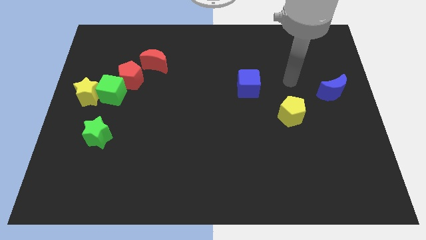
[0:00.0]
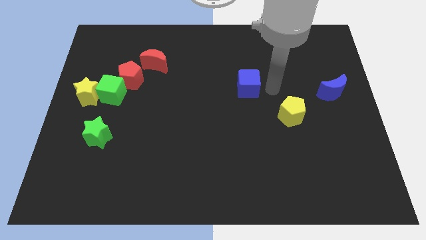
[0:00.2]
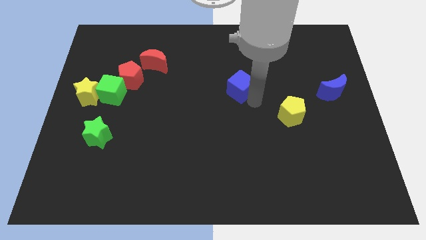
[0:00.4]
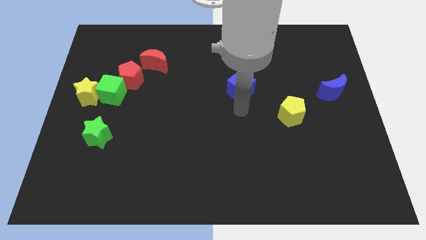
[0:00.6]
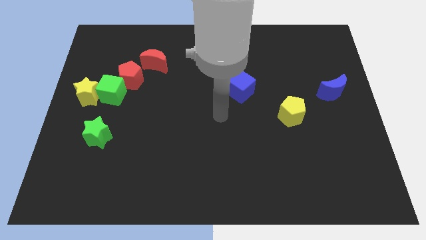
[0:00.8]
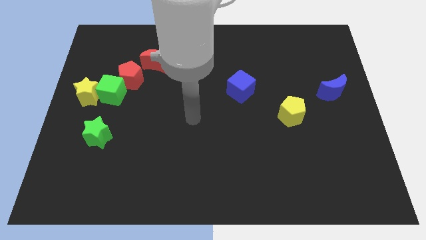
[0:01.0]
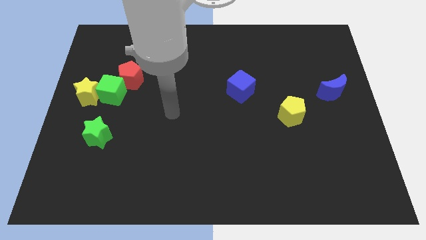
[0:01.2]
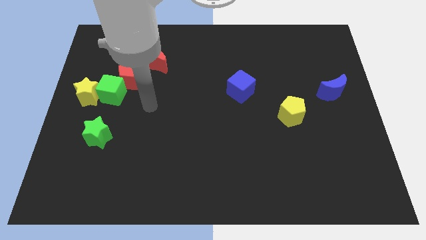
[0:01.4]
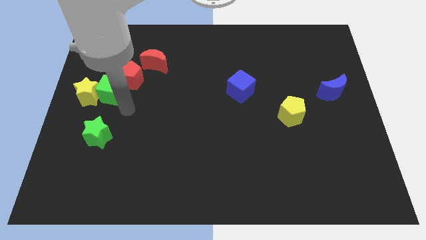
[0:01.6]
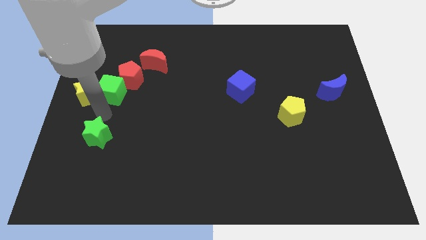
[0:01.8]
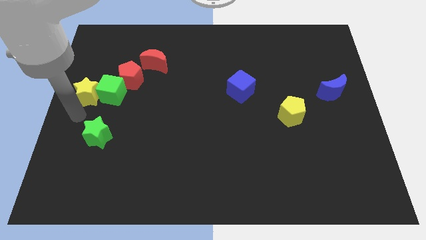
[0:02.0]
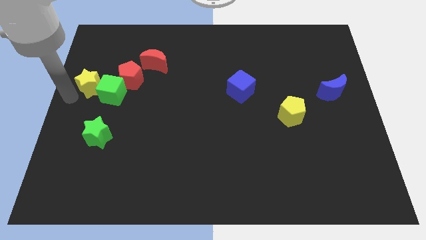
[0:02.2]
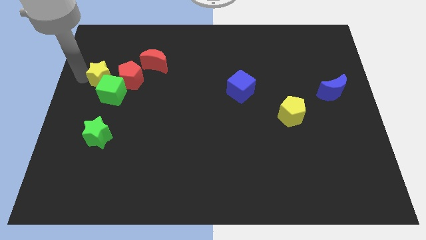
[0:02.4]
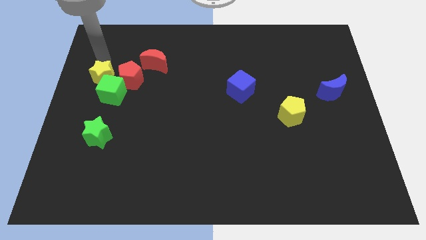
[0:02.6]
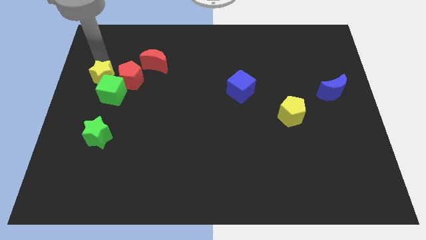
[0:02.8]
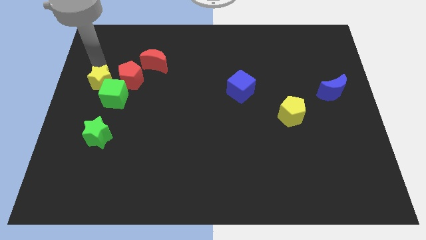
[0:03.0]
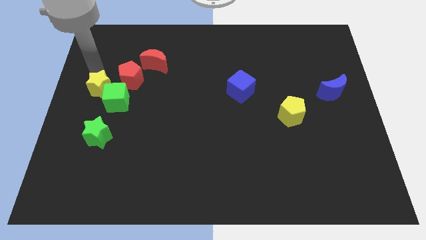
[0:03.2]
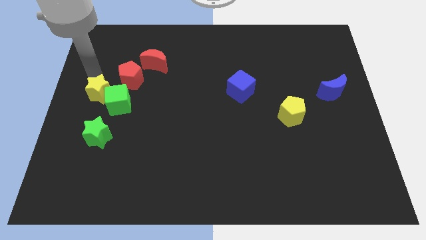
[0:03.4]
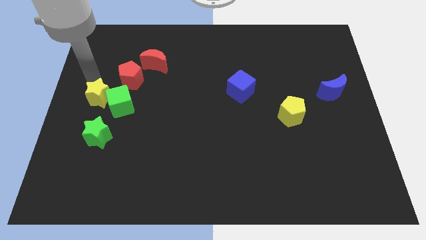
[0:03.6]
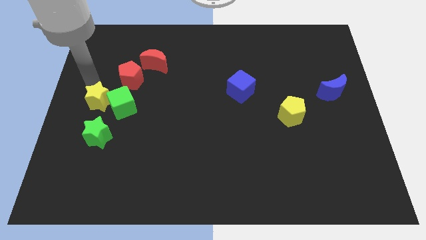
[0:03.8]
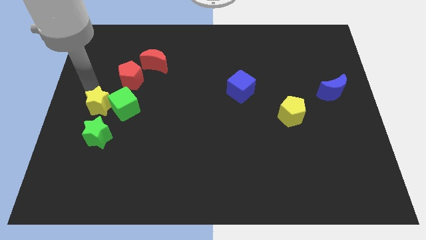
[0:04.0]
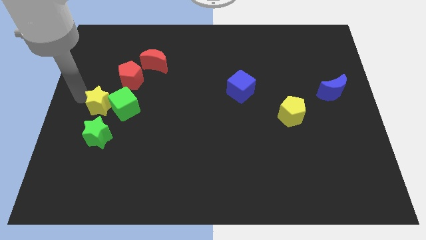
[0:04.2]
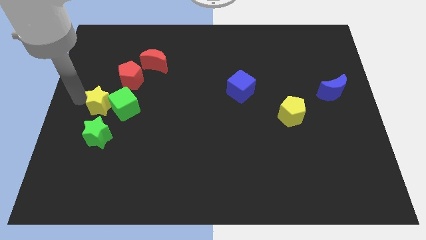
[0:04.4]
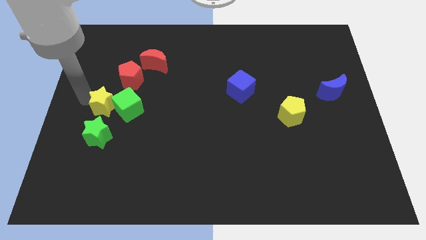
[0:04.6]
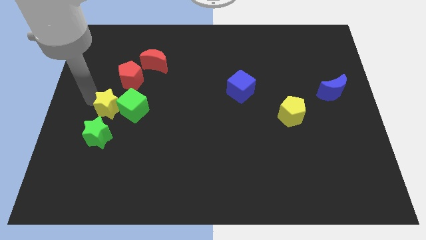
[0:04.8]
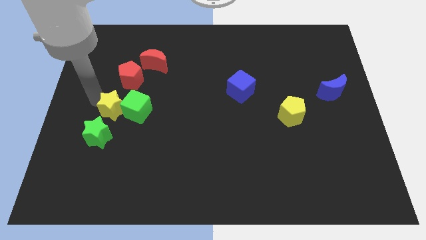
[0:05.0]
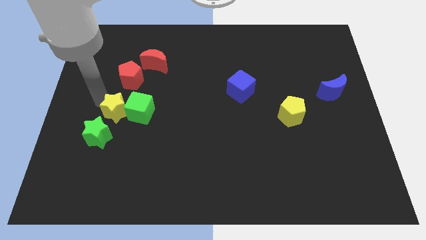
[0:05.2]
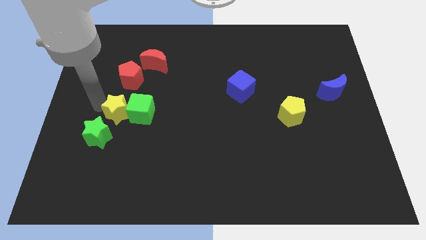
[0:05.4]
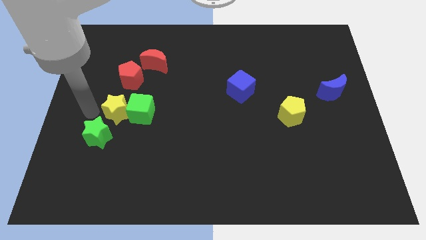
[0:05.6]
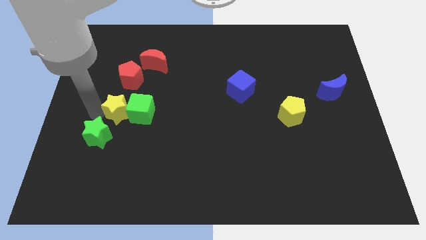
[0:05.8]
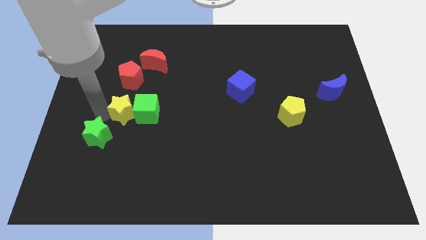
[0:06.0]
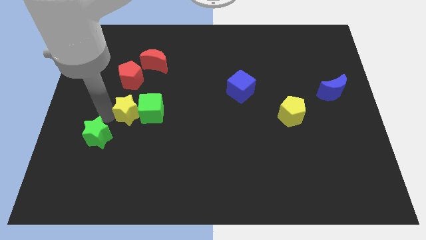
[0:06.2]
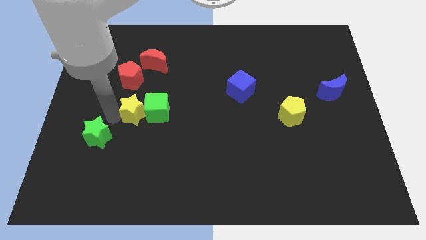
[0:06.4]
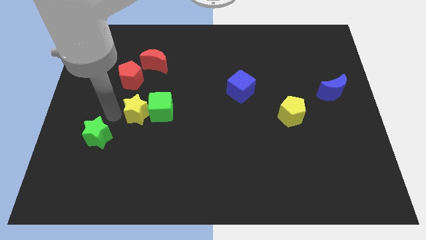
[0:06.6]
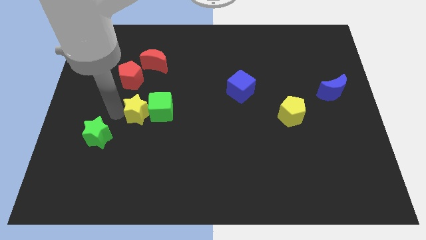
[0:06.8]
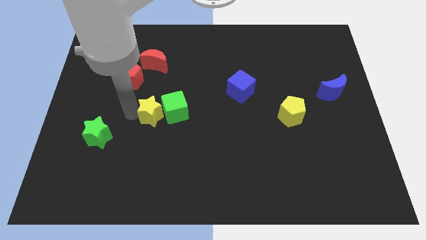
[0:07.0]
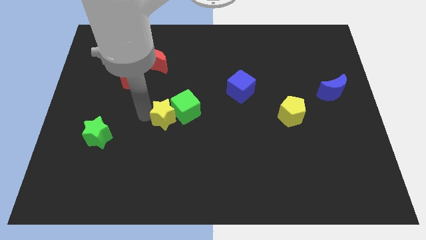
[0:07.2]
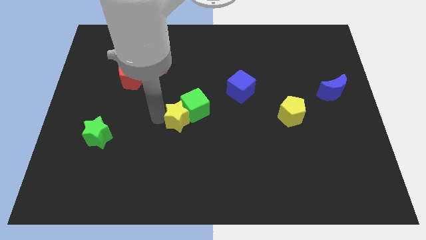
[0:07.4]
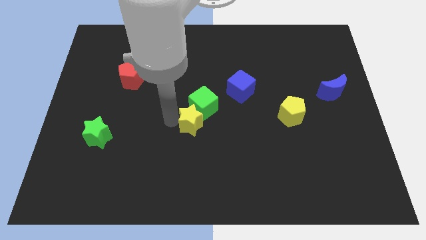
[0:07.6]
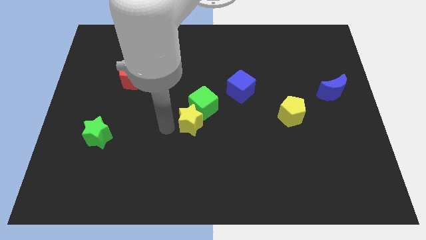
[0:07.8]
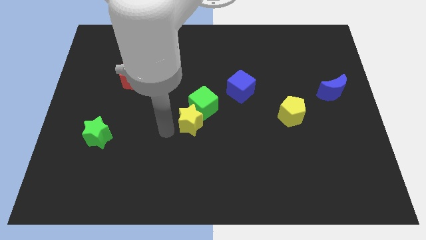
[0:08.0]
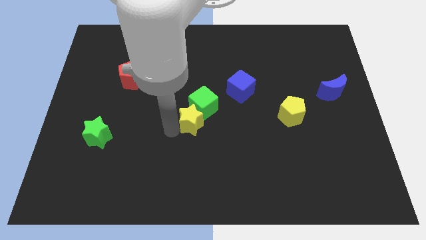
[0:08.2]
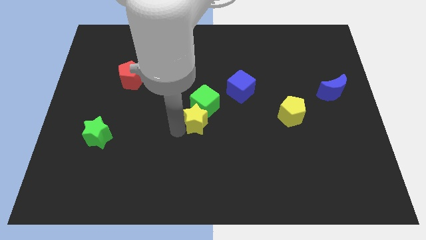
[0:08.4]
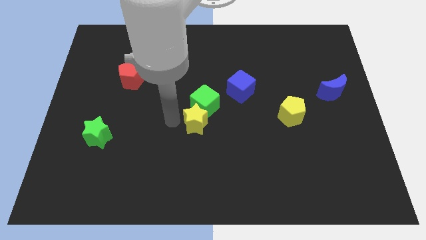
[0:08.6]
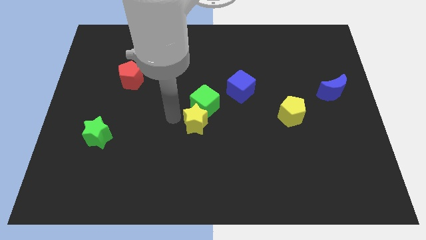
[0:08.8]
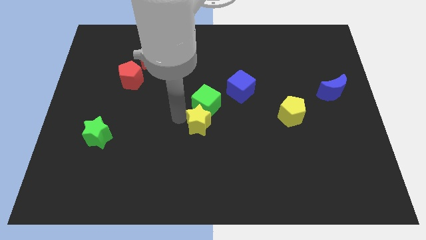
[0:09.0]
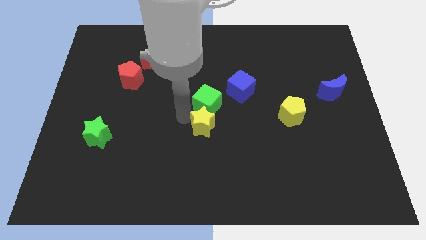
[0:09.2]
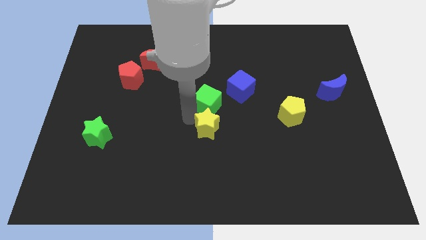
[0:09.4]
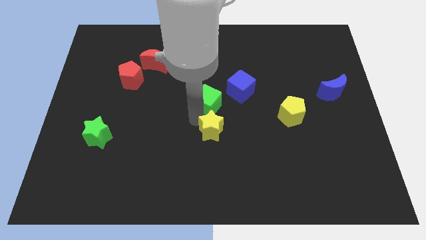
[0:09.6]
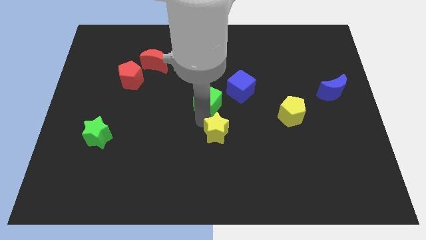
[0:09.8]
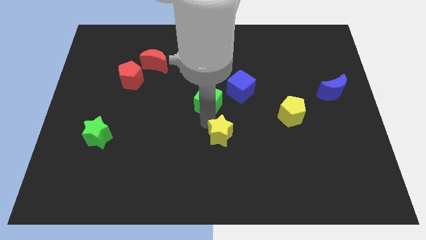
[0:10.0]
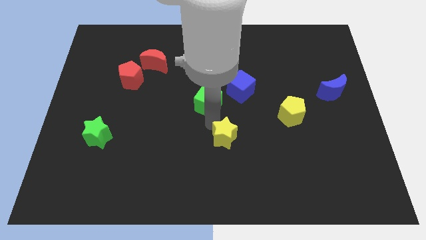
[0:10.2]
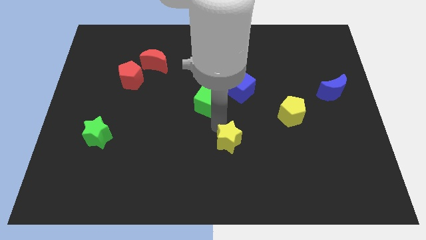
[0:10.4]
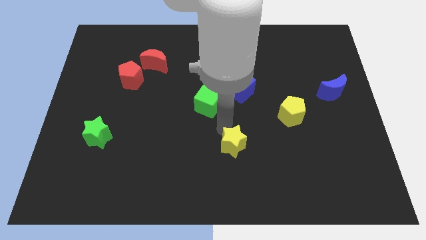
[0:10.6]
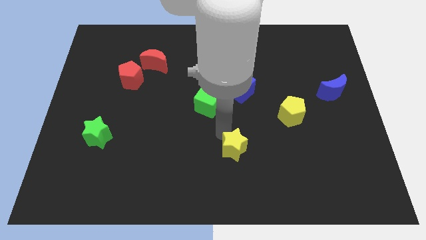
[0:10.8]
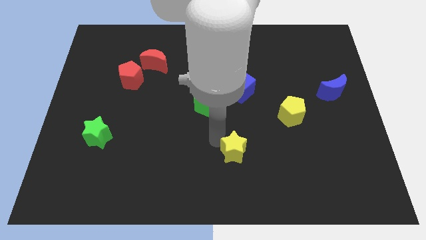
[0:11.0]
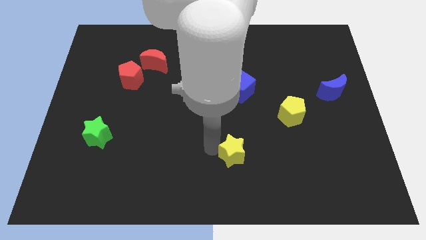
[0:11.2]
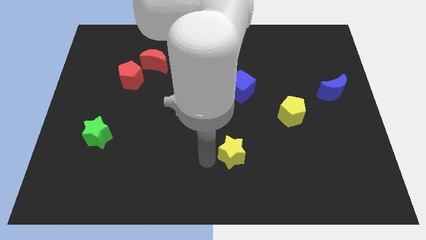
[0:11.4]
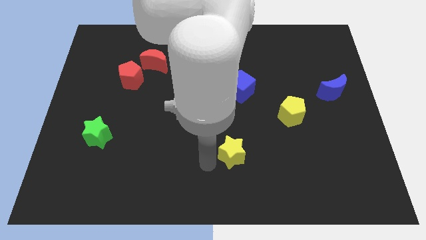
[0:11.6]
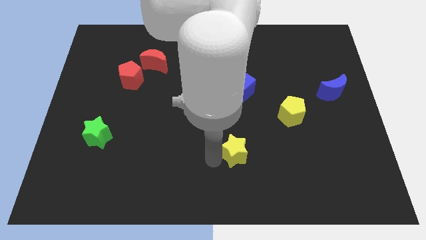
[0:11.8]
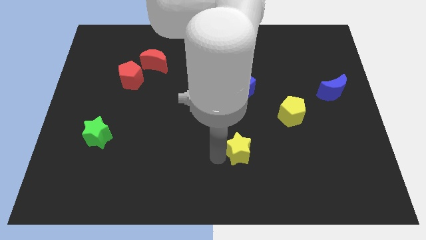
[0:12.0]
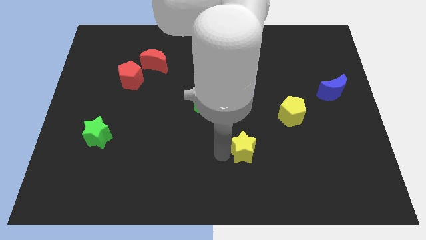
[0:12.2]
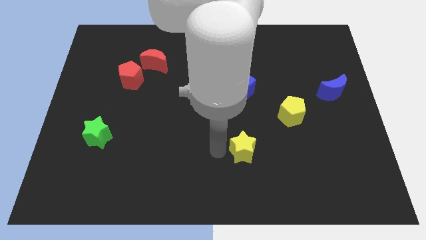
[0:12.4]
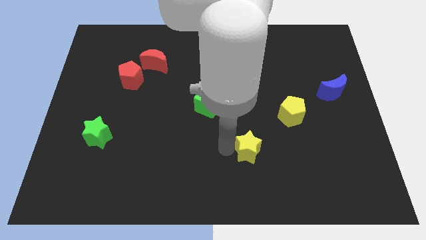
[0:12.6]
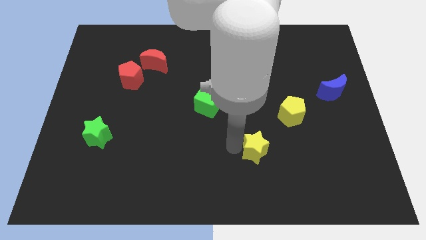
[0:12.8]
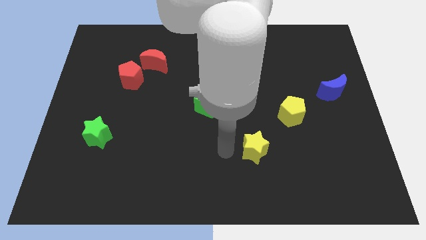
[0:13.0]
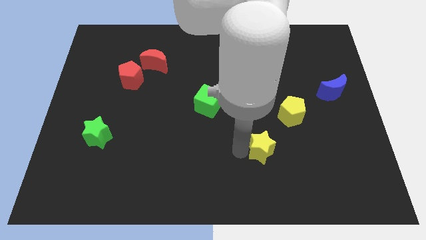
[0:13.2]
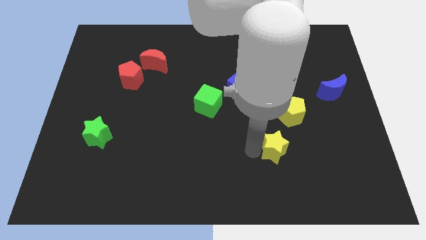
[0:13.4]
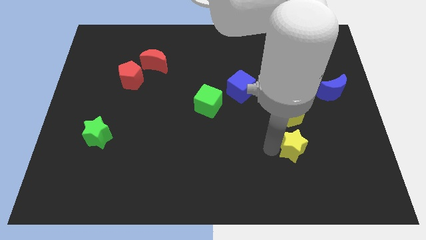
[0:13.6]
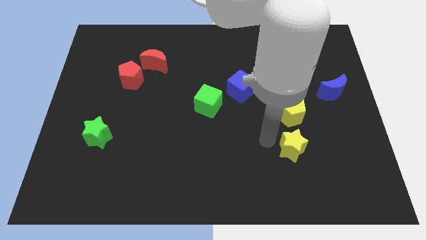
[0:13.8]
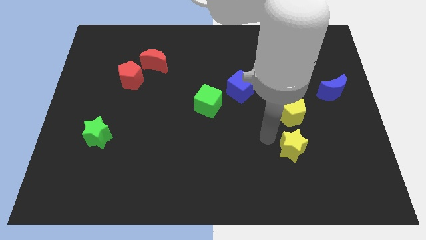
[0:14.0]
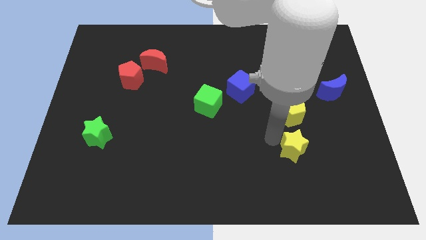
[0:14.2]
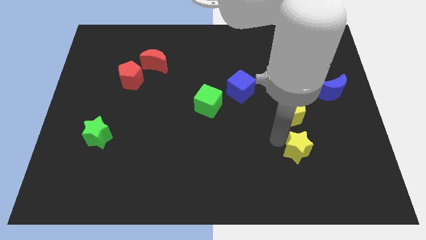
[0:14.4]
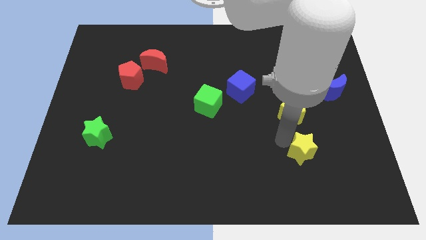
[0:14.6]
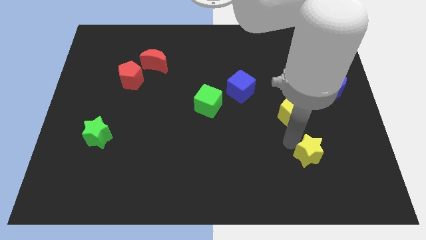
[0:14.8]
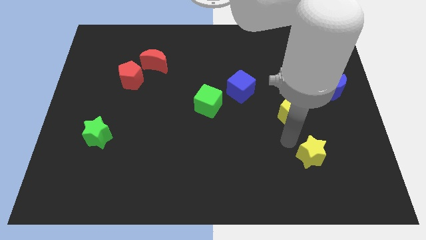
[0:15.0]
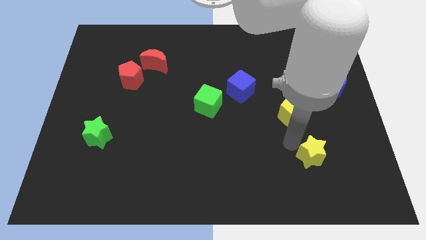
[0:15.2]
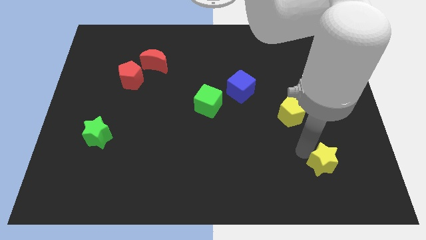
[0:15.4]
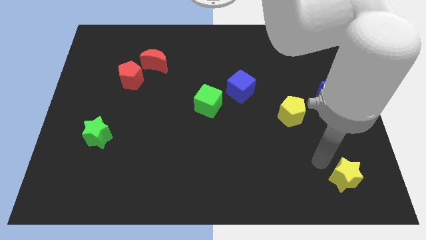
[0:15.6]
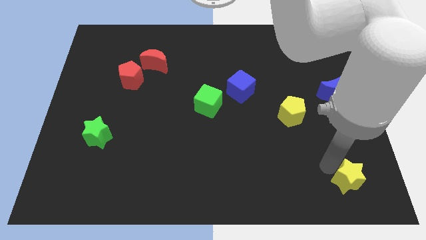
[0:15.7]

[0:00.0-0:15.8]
slide the yellow star to the bottom right corner
